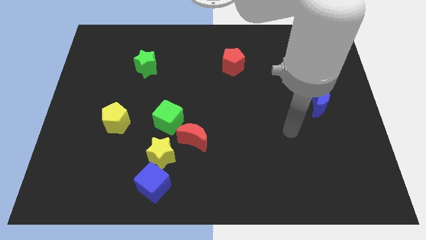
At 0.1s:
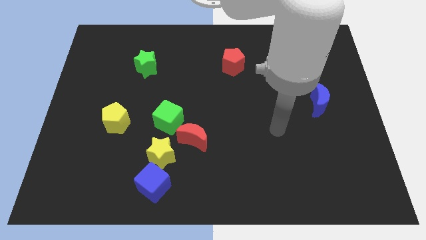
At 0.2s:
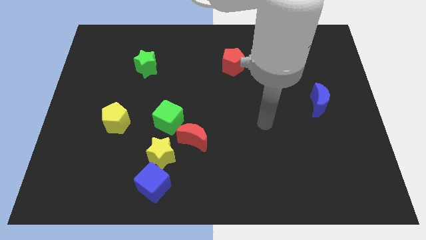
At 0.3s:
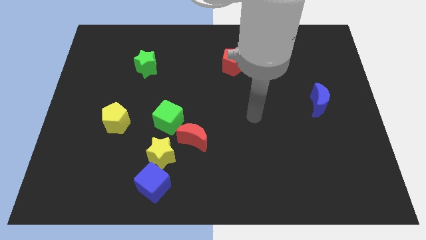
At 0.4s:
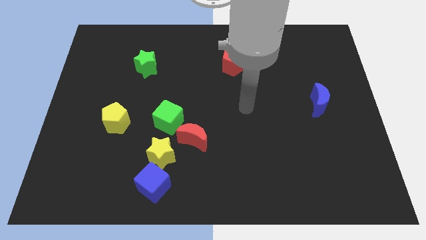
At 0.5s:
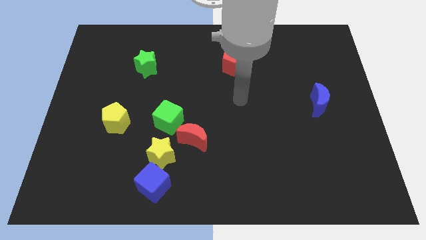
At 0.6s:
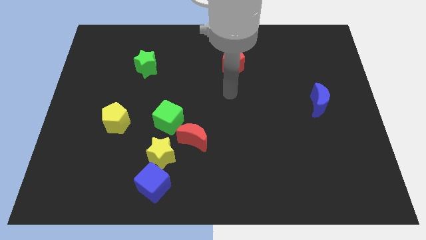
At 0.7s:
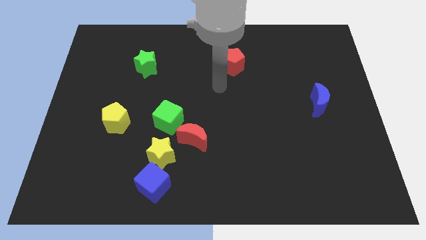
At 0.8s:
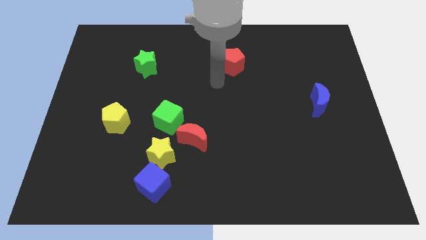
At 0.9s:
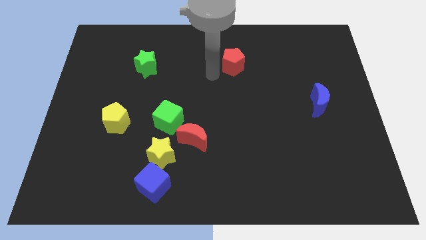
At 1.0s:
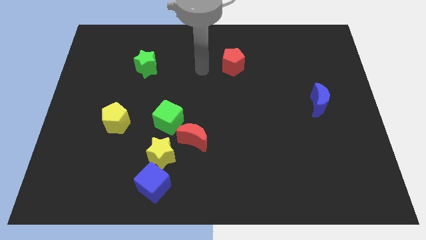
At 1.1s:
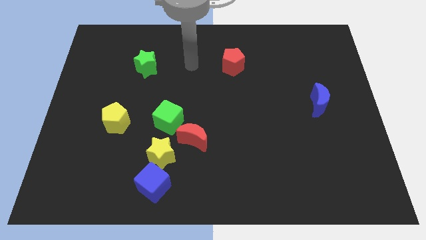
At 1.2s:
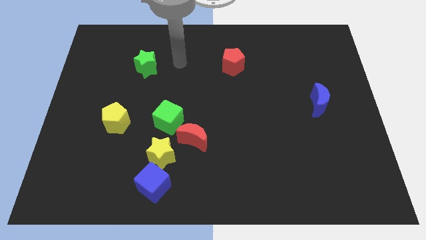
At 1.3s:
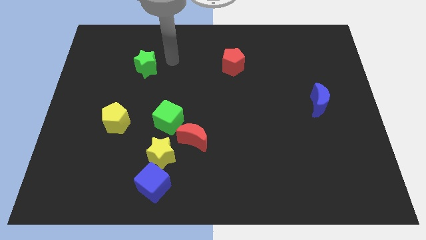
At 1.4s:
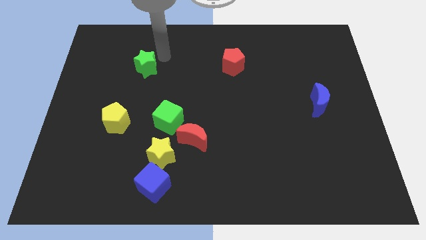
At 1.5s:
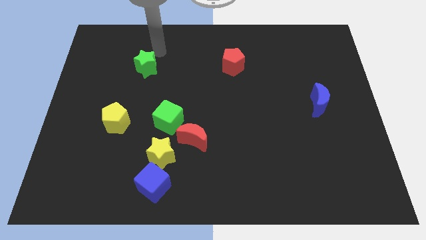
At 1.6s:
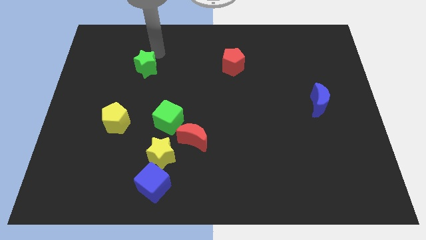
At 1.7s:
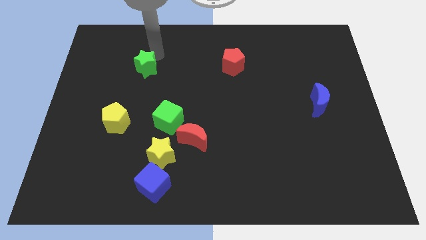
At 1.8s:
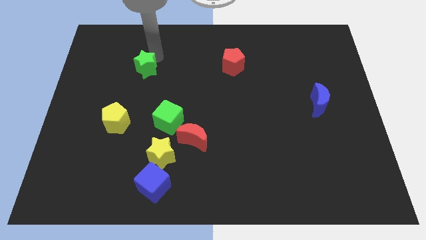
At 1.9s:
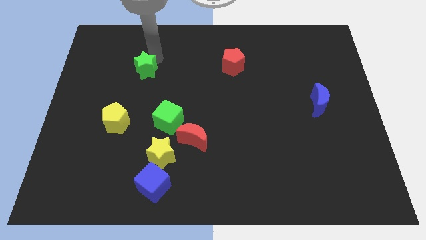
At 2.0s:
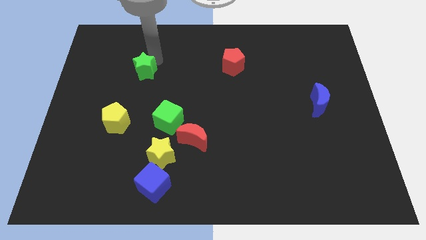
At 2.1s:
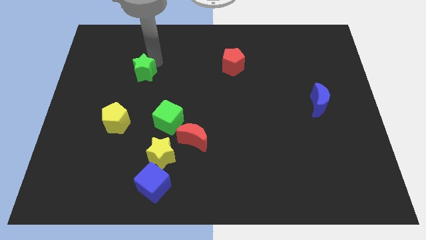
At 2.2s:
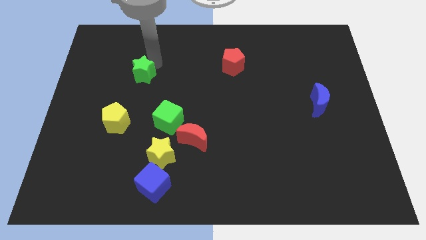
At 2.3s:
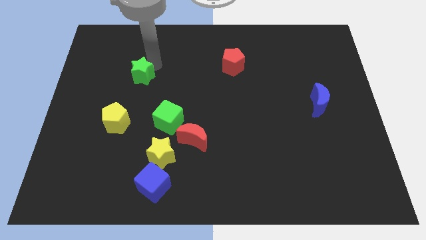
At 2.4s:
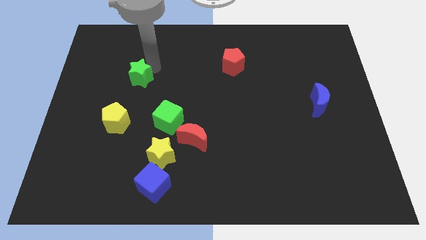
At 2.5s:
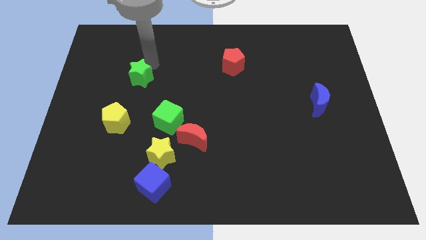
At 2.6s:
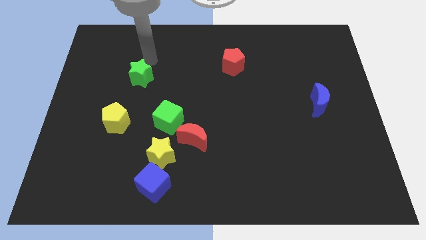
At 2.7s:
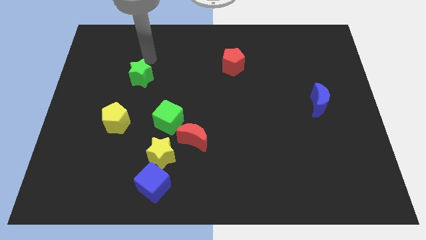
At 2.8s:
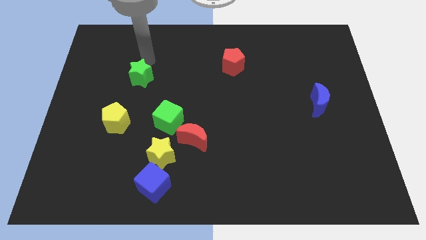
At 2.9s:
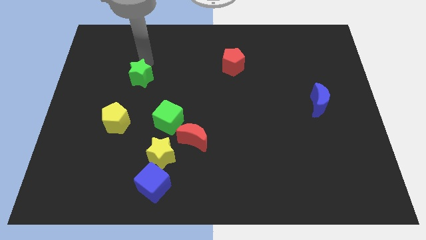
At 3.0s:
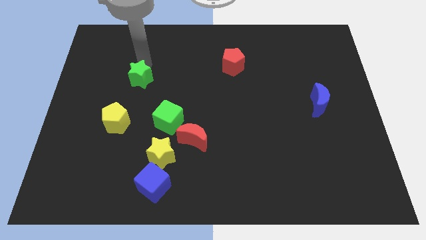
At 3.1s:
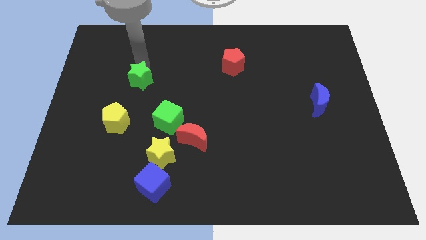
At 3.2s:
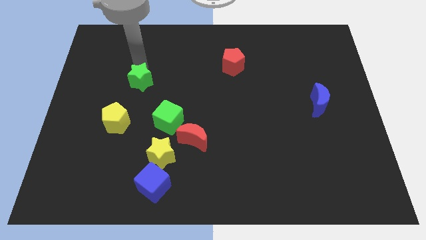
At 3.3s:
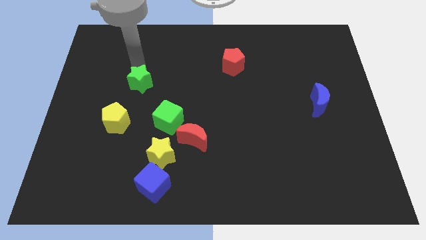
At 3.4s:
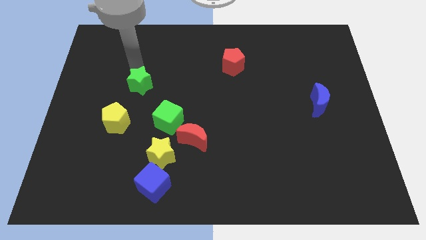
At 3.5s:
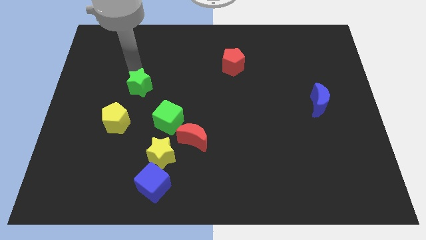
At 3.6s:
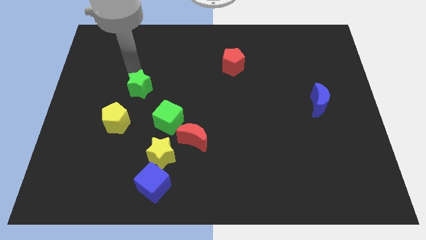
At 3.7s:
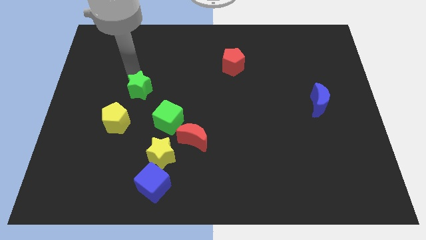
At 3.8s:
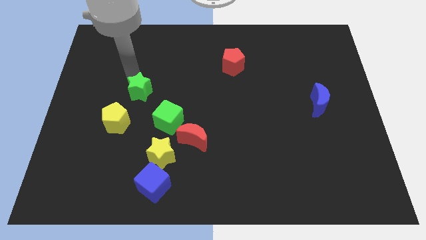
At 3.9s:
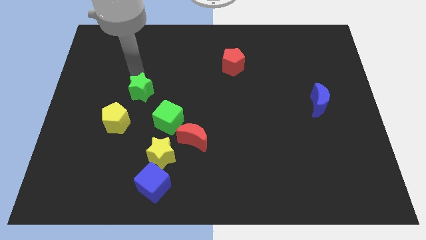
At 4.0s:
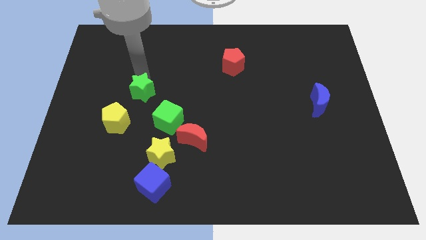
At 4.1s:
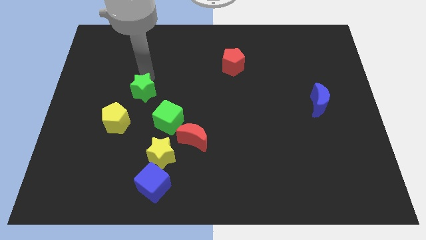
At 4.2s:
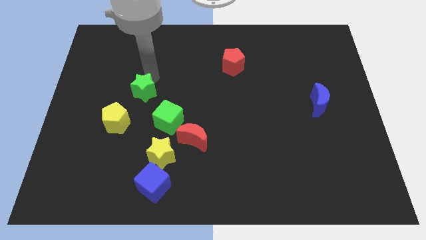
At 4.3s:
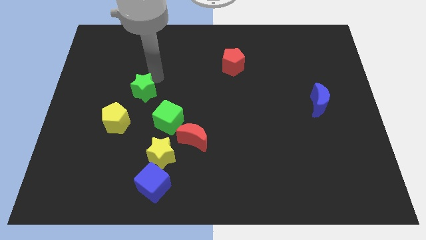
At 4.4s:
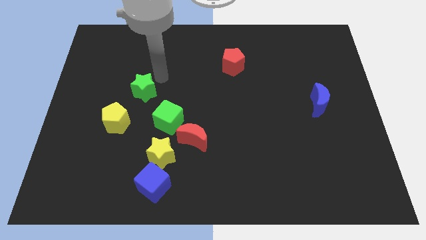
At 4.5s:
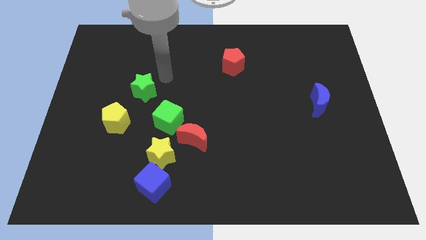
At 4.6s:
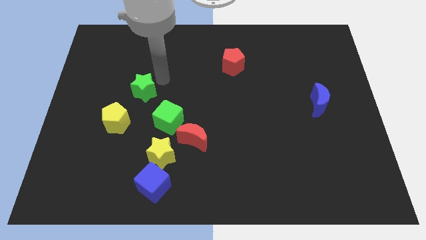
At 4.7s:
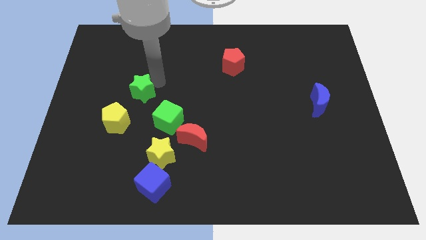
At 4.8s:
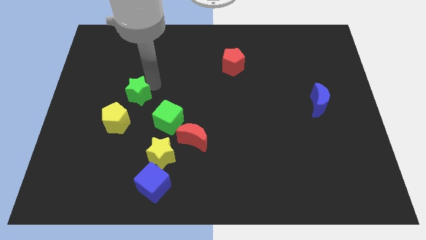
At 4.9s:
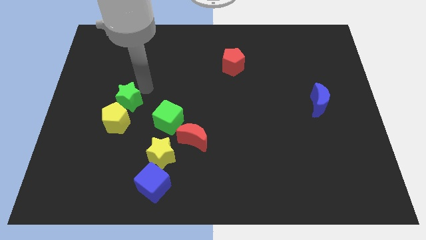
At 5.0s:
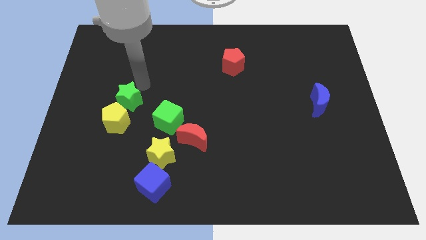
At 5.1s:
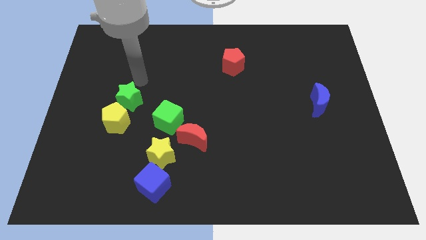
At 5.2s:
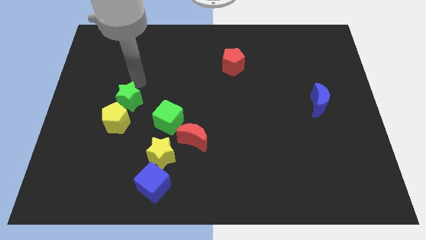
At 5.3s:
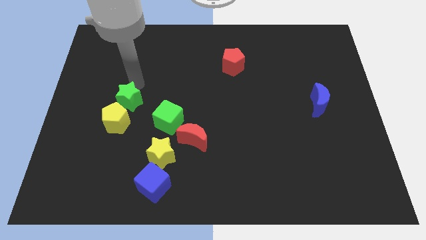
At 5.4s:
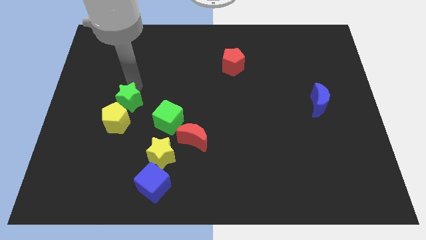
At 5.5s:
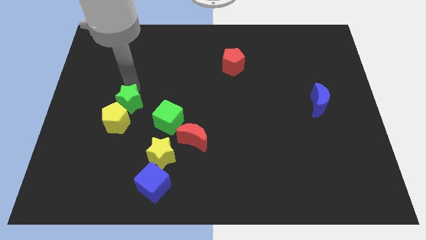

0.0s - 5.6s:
move the green star to the yellow pentagon

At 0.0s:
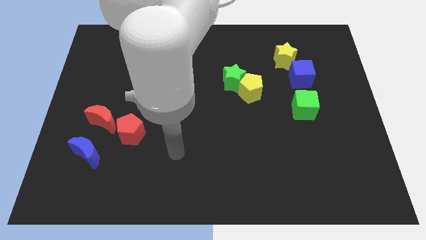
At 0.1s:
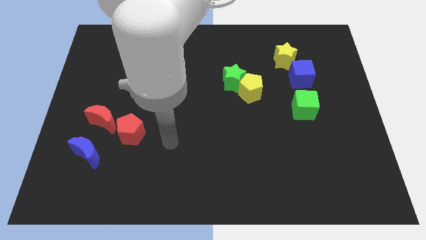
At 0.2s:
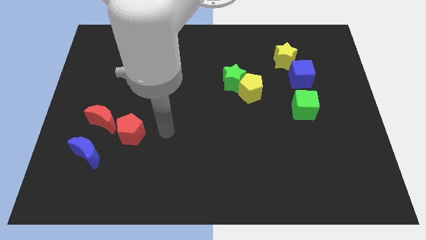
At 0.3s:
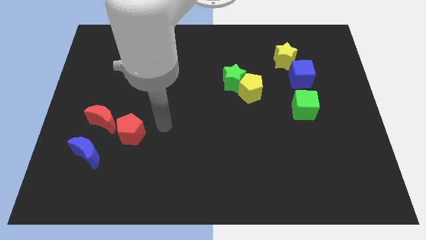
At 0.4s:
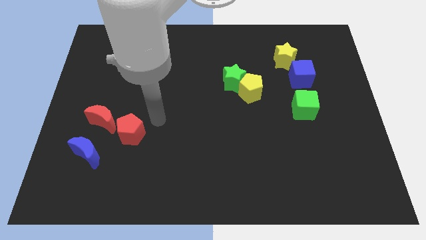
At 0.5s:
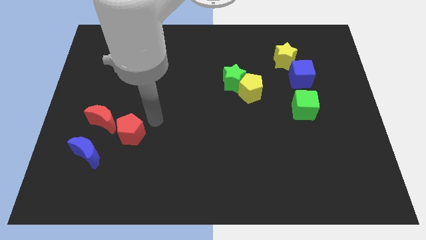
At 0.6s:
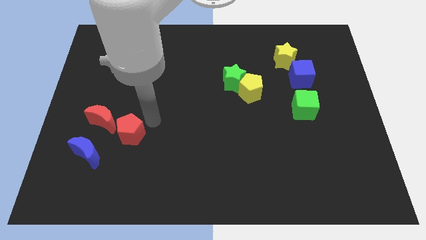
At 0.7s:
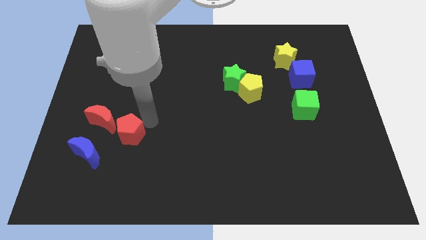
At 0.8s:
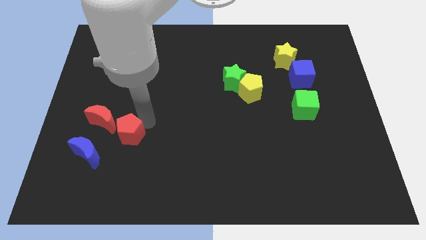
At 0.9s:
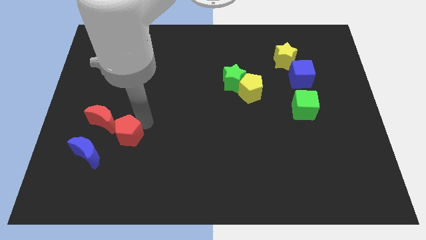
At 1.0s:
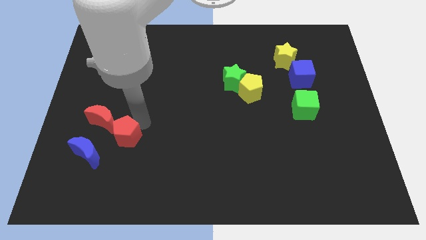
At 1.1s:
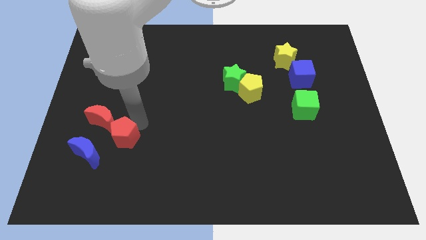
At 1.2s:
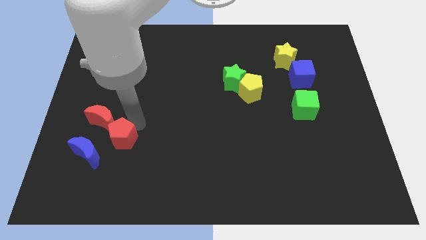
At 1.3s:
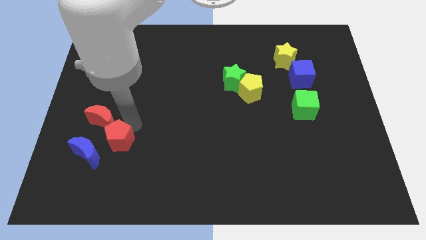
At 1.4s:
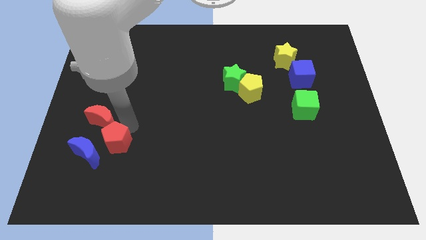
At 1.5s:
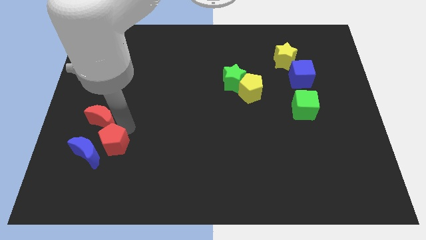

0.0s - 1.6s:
move the red pentagon close to the blue moon
